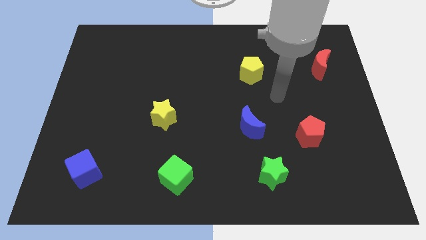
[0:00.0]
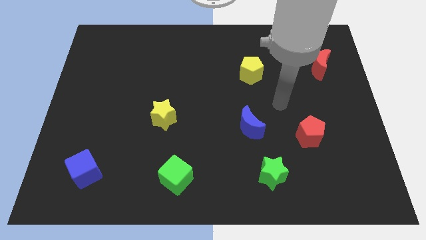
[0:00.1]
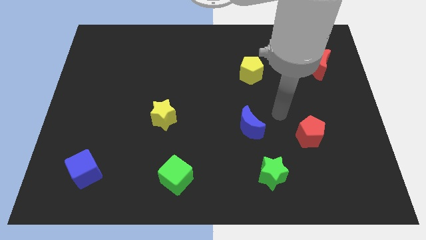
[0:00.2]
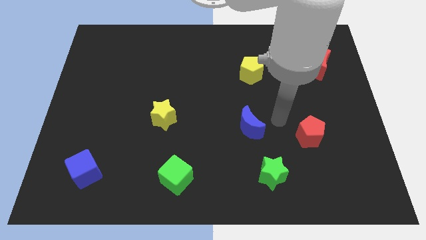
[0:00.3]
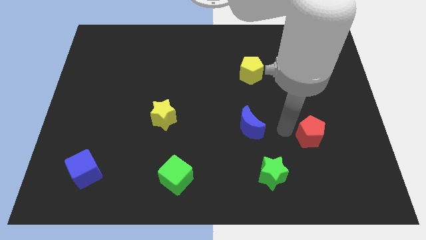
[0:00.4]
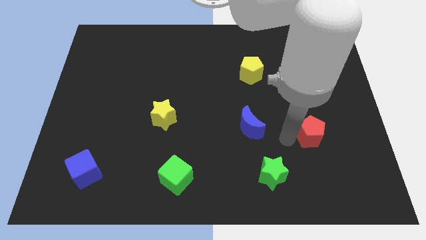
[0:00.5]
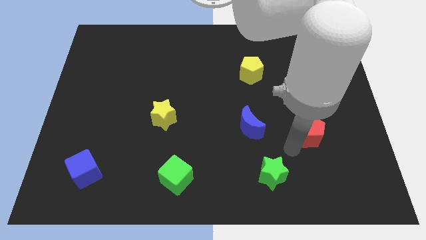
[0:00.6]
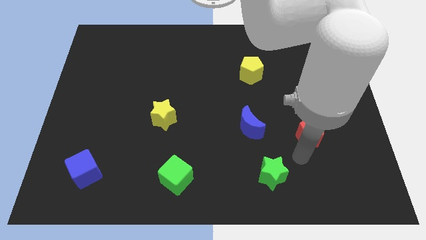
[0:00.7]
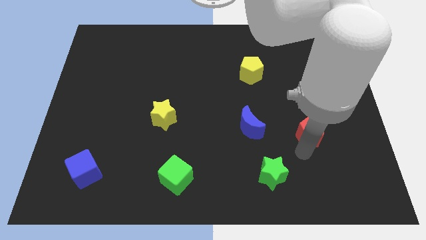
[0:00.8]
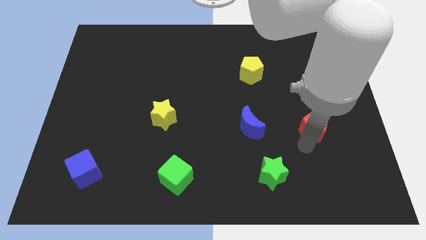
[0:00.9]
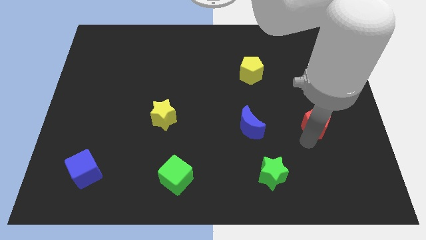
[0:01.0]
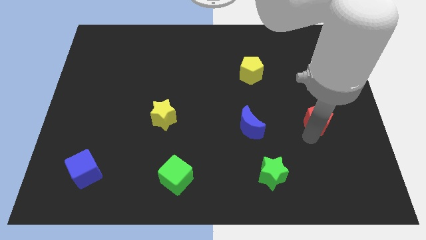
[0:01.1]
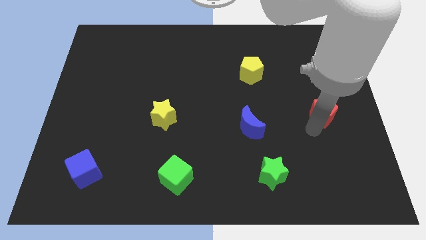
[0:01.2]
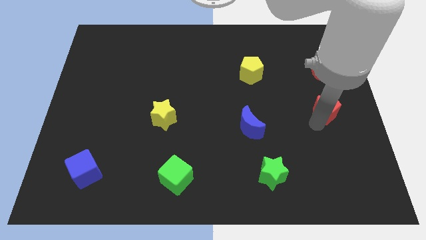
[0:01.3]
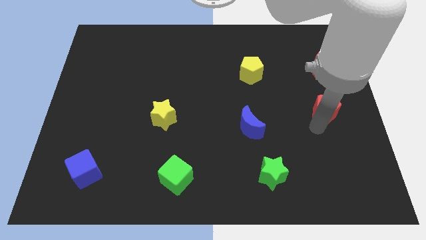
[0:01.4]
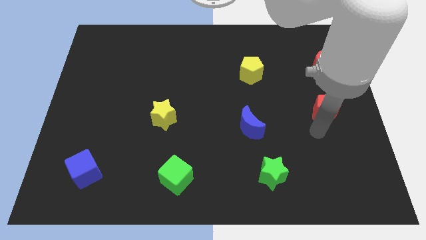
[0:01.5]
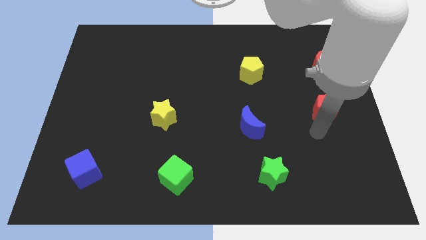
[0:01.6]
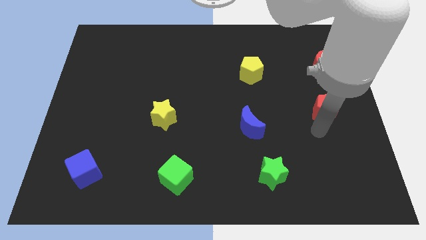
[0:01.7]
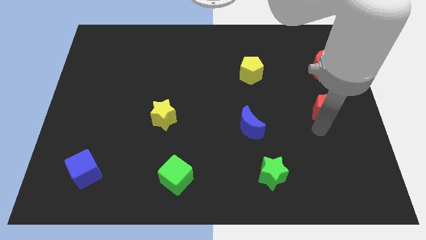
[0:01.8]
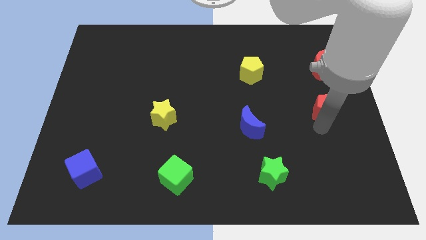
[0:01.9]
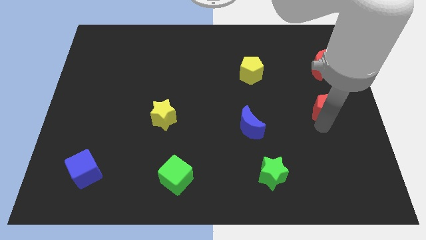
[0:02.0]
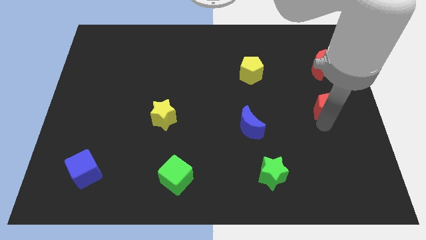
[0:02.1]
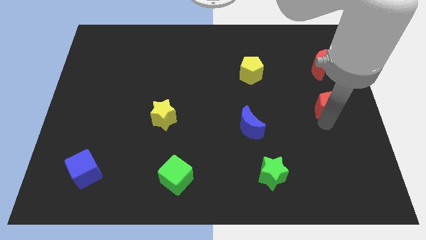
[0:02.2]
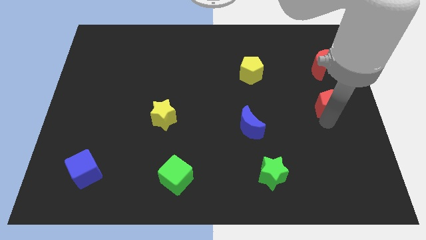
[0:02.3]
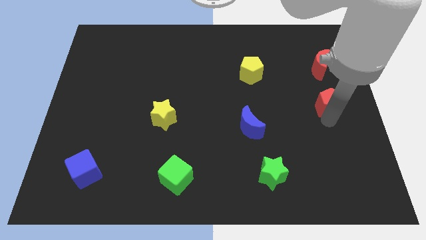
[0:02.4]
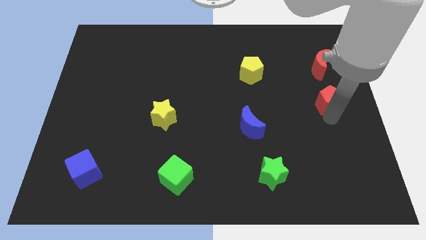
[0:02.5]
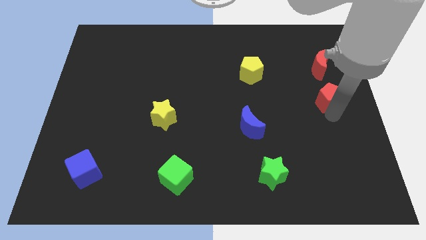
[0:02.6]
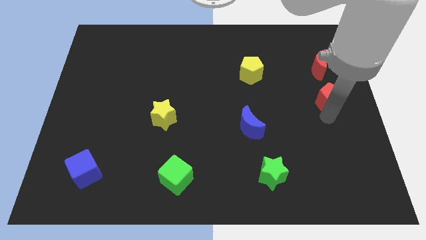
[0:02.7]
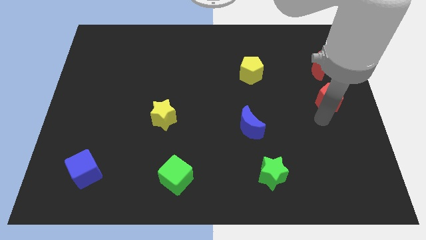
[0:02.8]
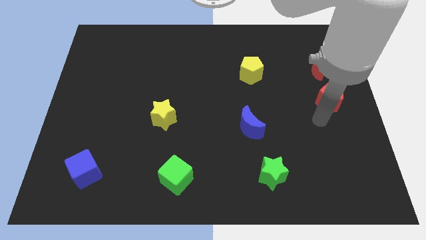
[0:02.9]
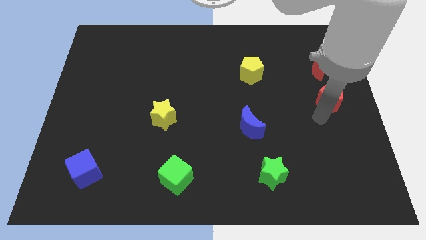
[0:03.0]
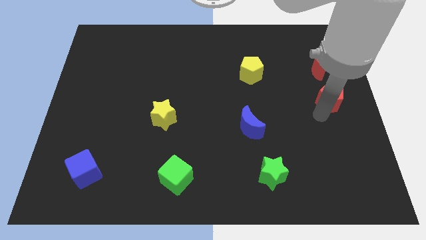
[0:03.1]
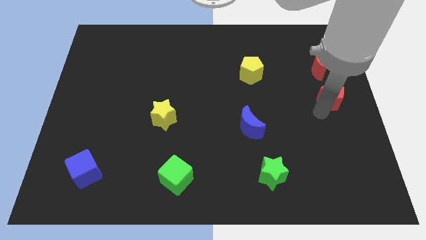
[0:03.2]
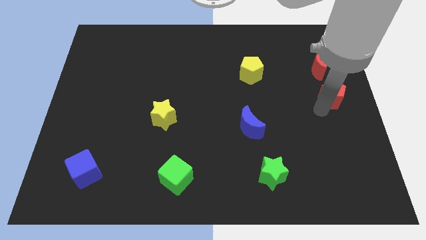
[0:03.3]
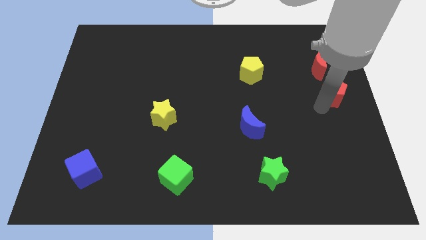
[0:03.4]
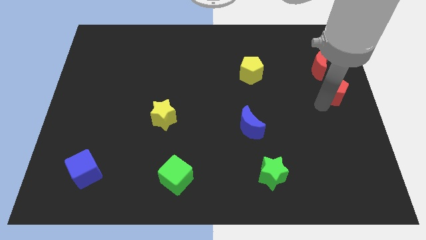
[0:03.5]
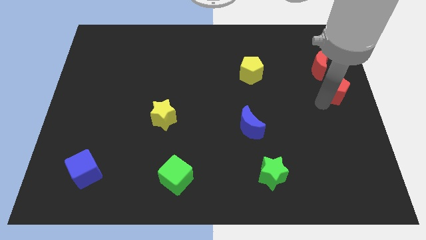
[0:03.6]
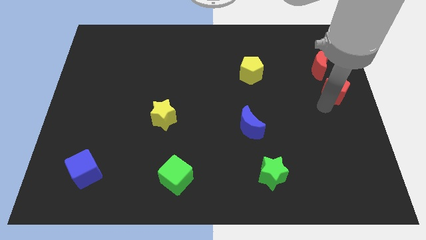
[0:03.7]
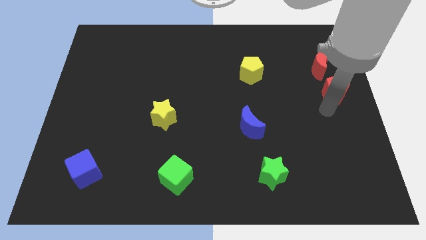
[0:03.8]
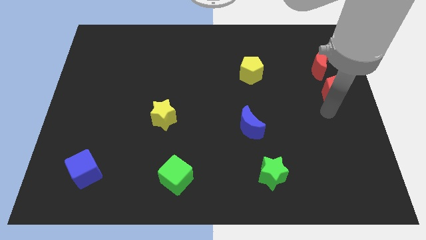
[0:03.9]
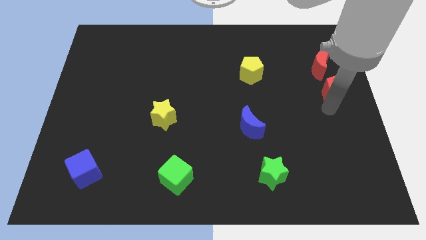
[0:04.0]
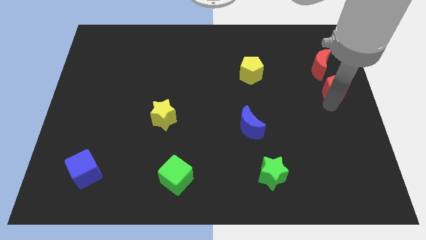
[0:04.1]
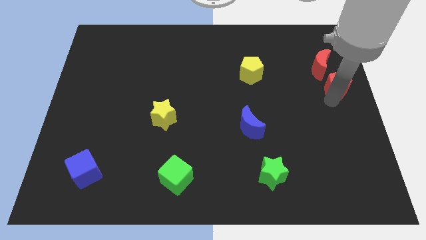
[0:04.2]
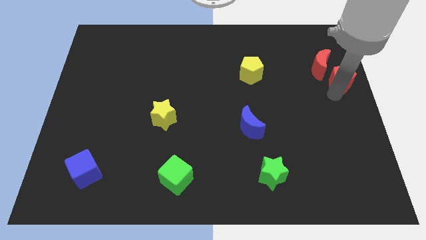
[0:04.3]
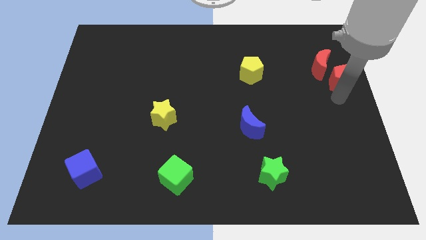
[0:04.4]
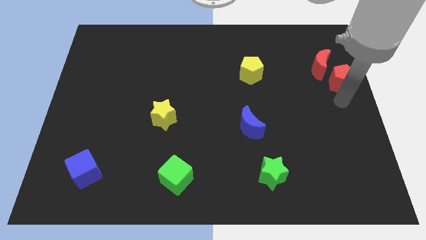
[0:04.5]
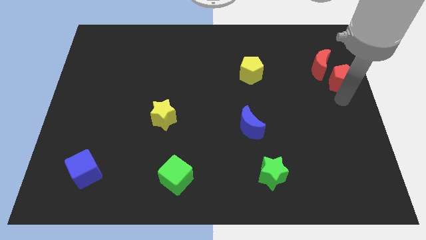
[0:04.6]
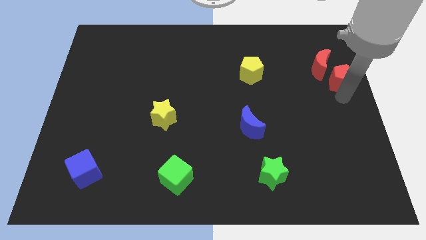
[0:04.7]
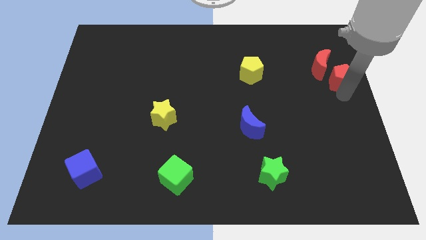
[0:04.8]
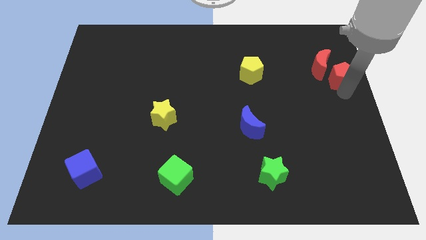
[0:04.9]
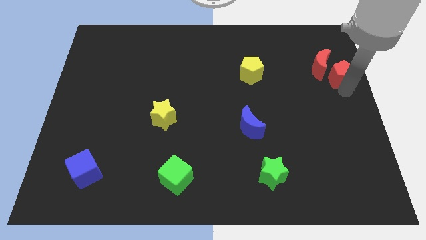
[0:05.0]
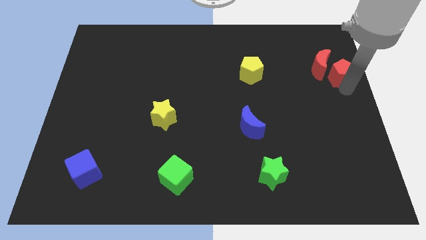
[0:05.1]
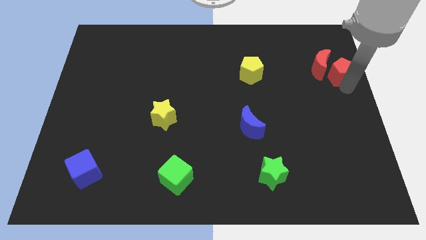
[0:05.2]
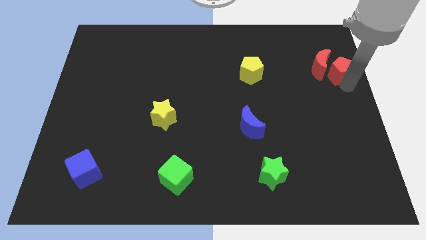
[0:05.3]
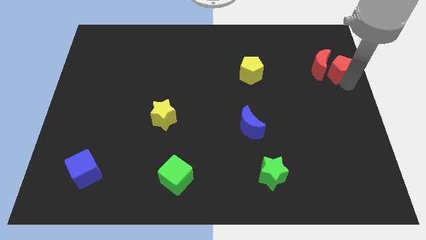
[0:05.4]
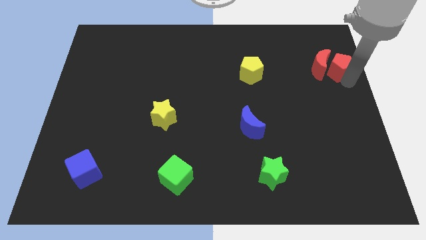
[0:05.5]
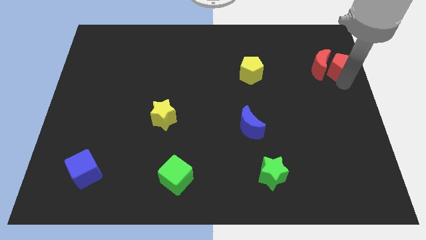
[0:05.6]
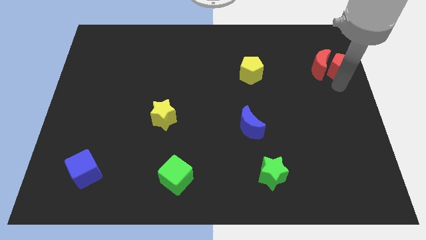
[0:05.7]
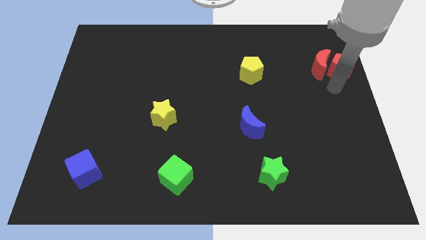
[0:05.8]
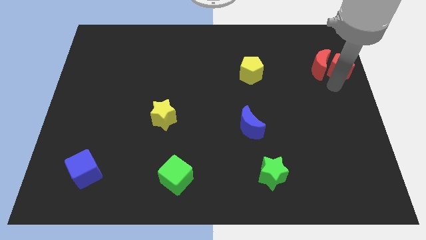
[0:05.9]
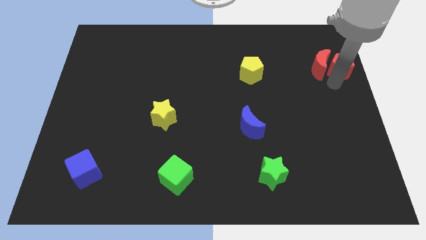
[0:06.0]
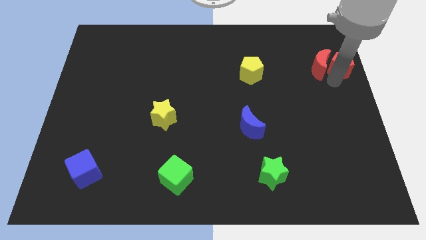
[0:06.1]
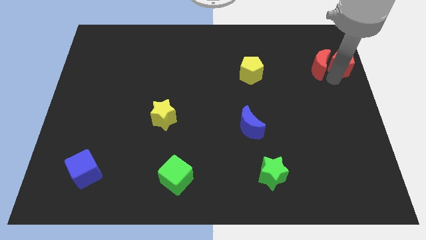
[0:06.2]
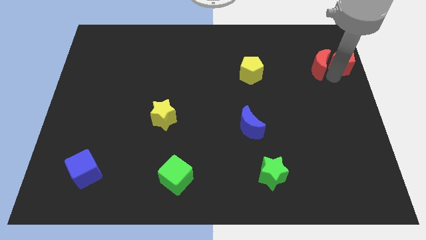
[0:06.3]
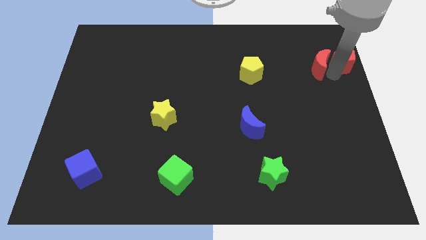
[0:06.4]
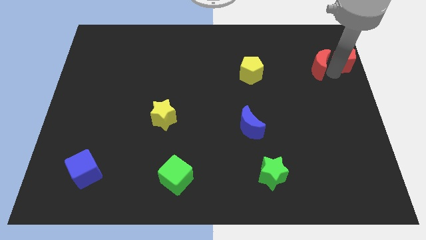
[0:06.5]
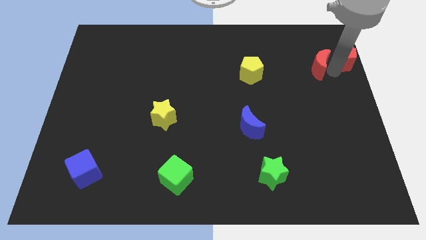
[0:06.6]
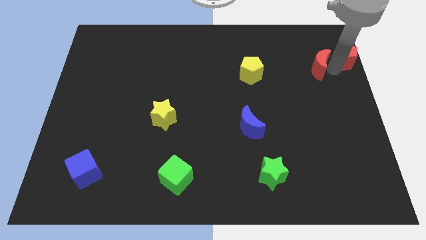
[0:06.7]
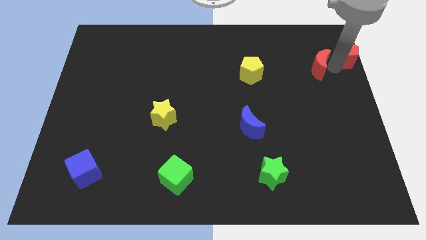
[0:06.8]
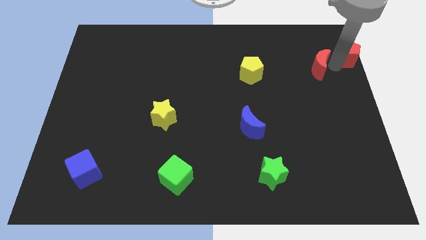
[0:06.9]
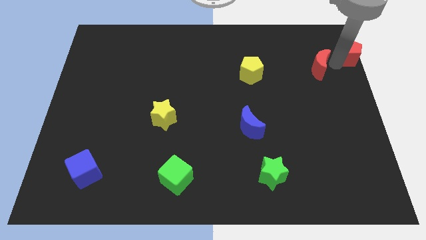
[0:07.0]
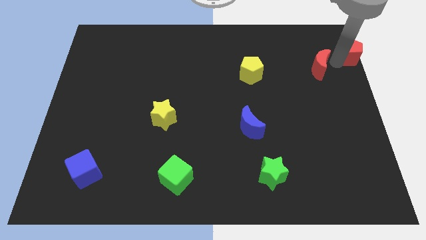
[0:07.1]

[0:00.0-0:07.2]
move the red pentagon to the upper right corner
